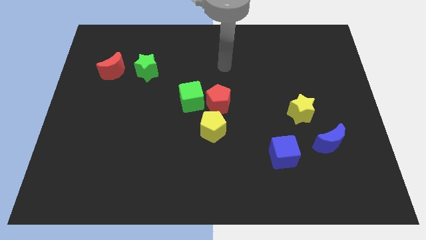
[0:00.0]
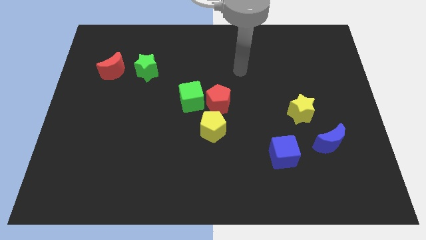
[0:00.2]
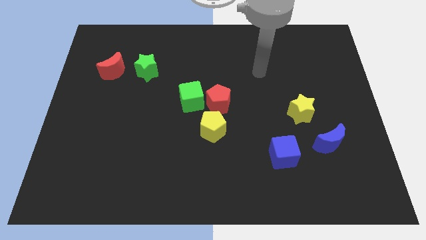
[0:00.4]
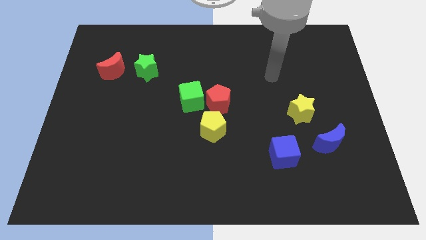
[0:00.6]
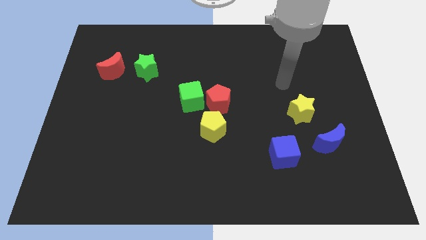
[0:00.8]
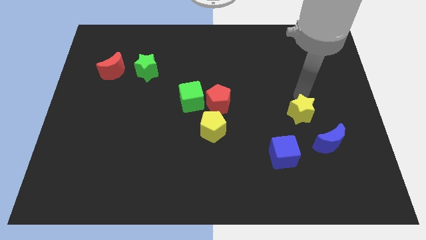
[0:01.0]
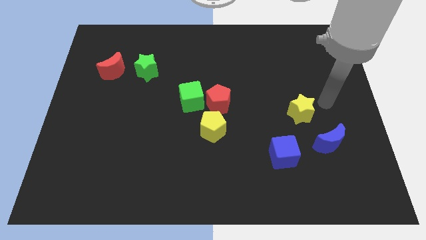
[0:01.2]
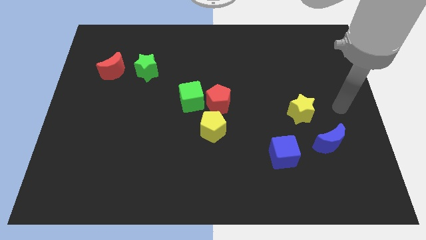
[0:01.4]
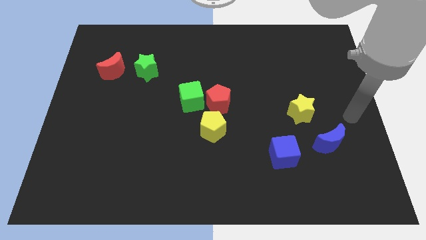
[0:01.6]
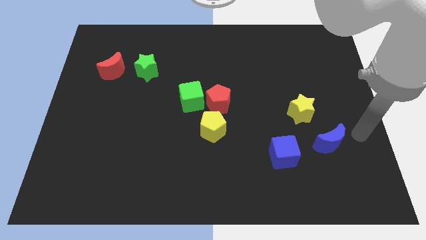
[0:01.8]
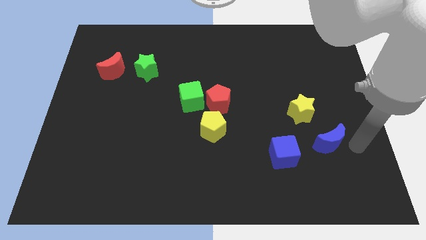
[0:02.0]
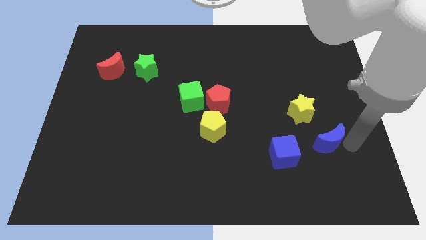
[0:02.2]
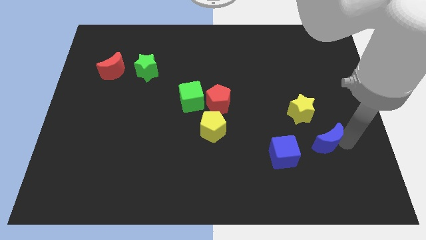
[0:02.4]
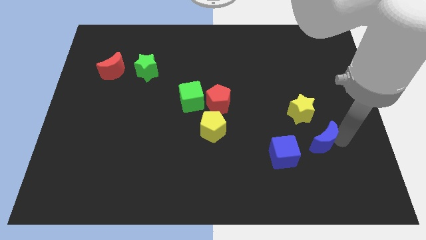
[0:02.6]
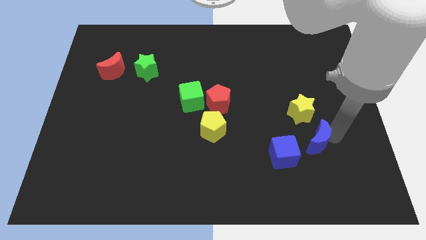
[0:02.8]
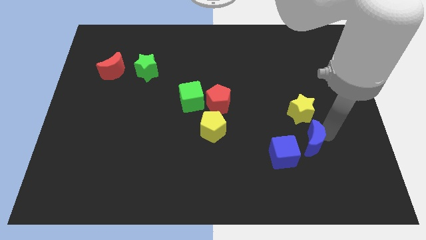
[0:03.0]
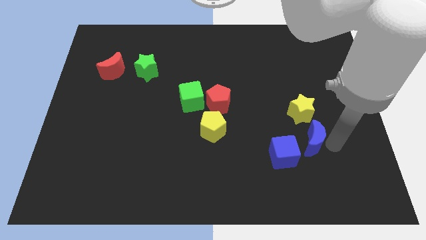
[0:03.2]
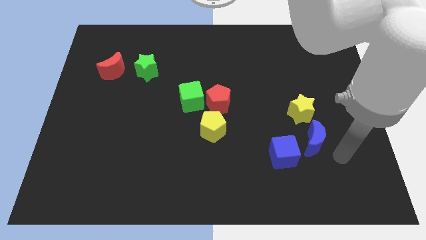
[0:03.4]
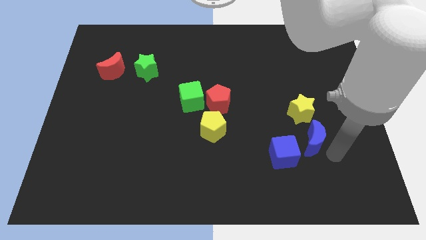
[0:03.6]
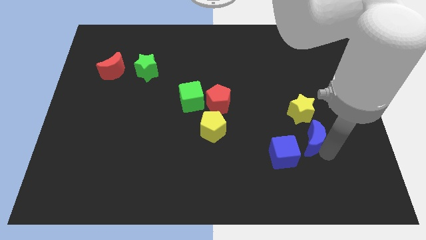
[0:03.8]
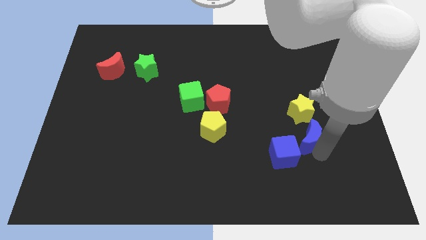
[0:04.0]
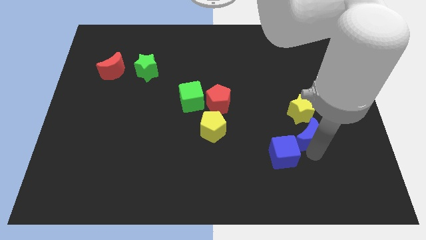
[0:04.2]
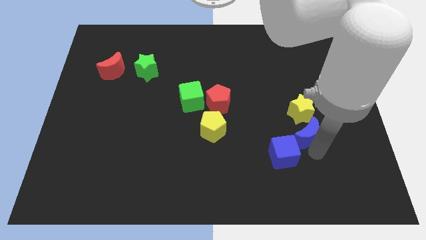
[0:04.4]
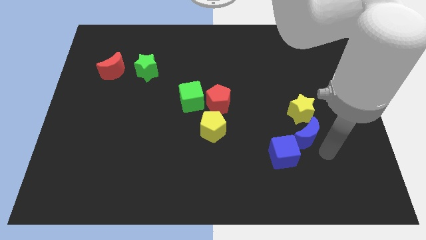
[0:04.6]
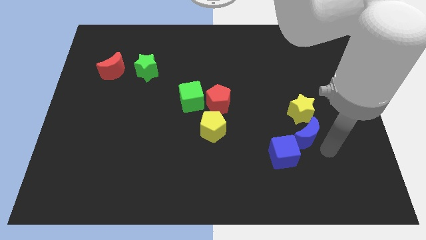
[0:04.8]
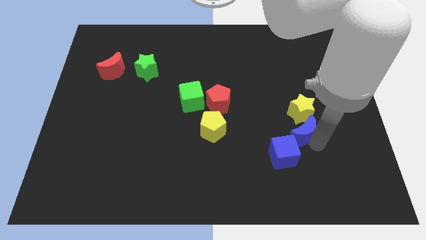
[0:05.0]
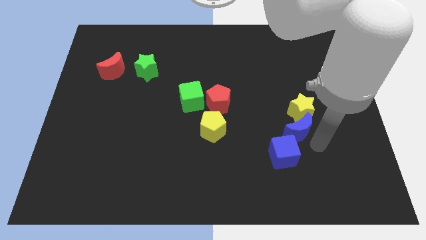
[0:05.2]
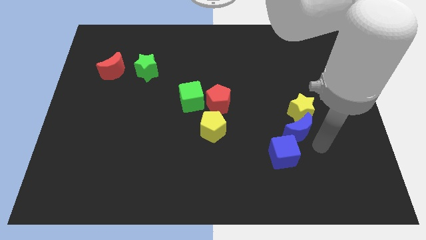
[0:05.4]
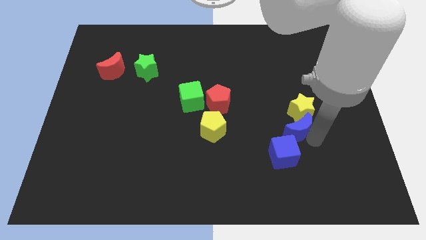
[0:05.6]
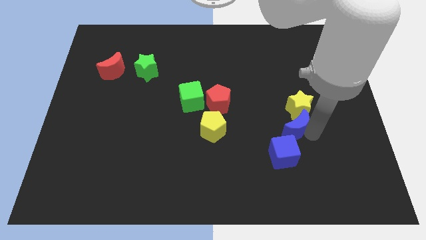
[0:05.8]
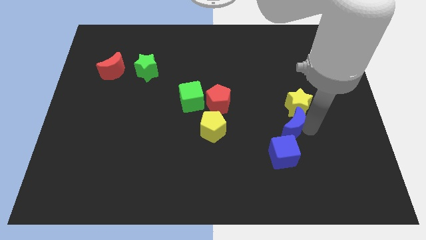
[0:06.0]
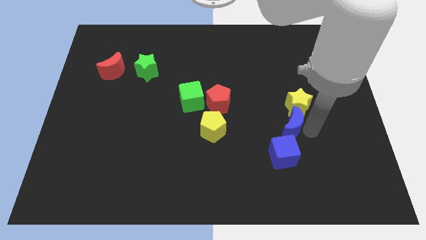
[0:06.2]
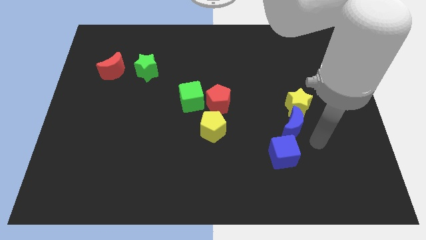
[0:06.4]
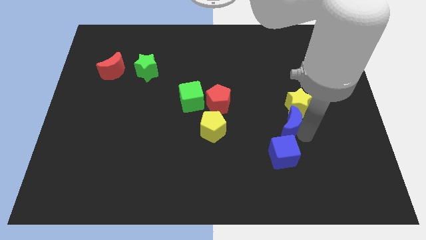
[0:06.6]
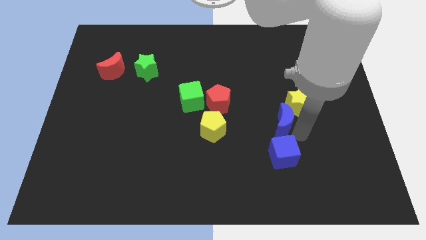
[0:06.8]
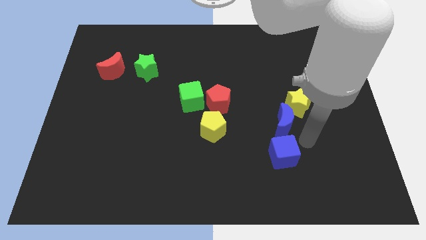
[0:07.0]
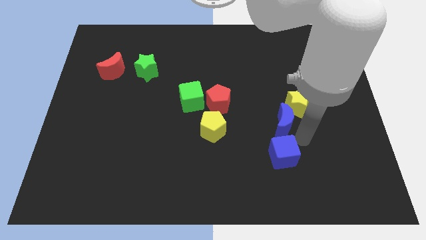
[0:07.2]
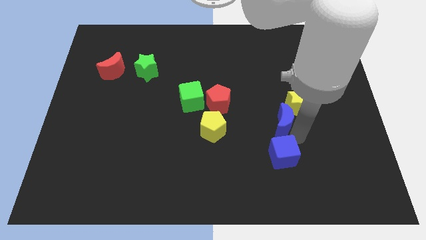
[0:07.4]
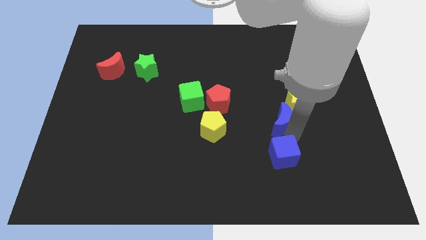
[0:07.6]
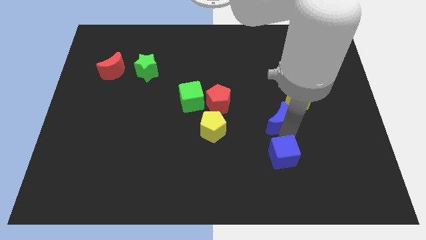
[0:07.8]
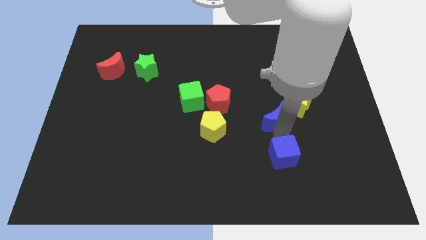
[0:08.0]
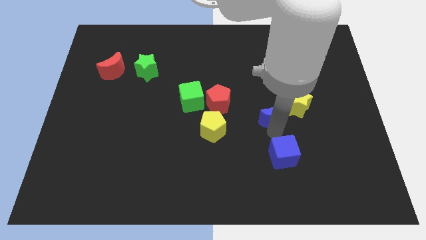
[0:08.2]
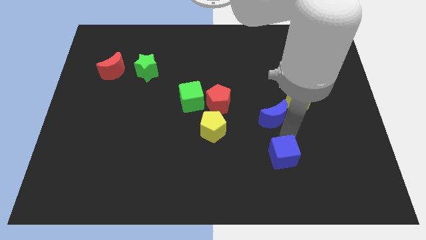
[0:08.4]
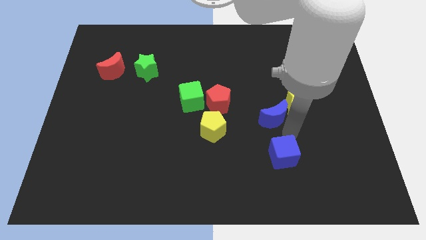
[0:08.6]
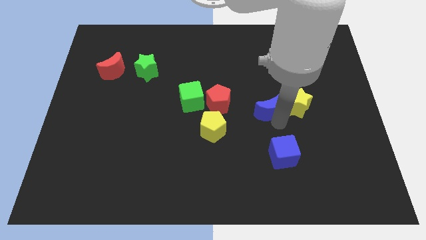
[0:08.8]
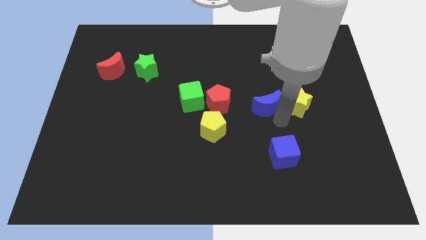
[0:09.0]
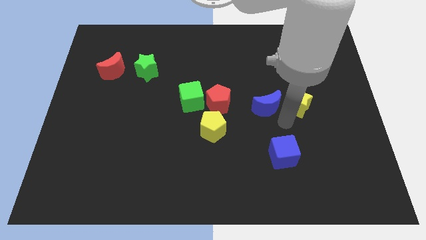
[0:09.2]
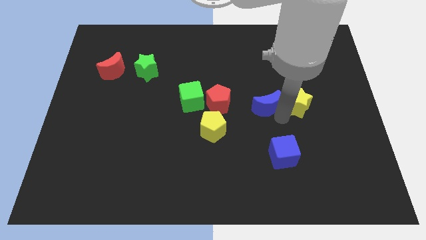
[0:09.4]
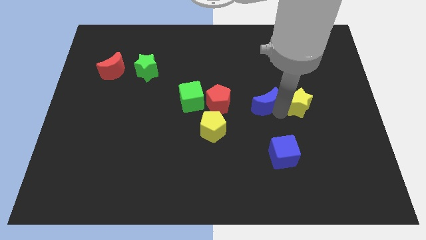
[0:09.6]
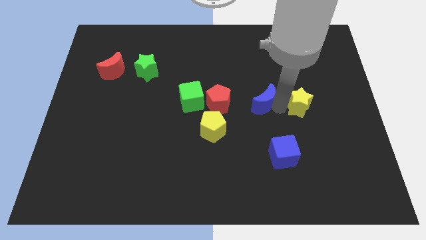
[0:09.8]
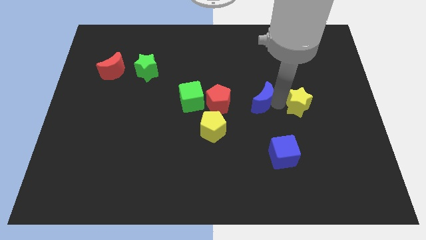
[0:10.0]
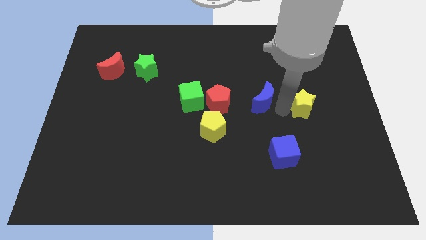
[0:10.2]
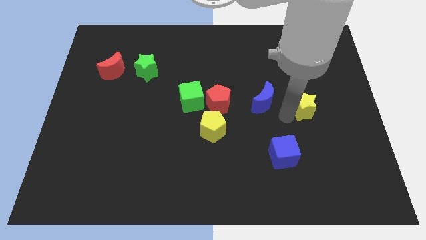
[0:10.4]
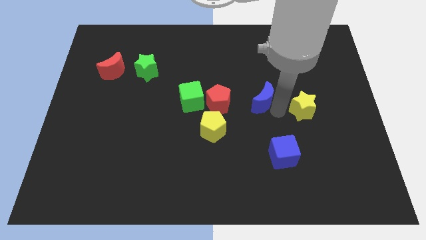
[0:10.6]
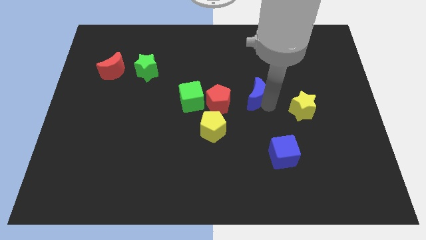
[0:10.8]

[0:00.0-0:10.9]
slide the blue moon diagonally upwards and left

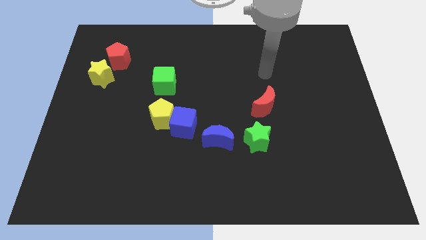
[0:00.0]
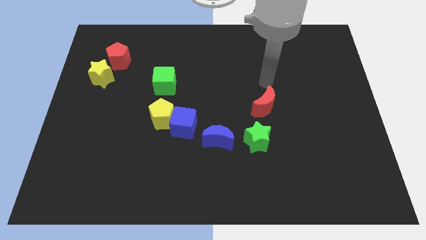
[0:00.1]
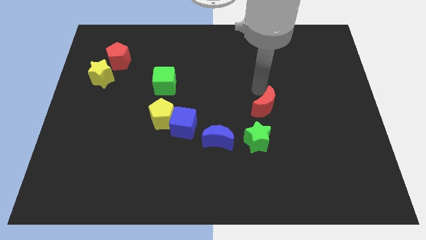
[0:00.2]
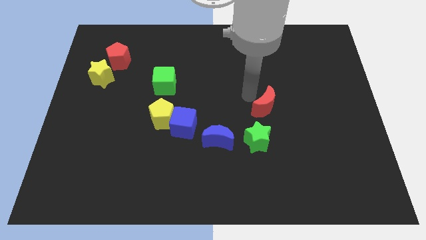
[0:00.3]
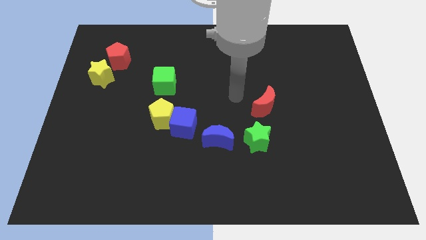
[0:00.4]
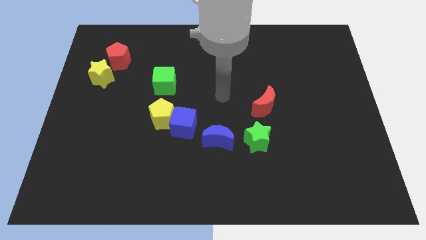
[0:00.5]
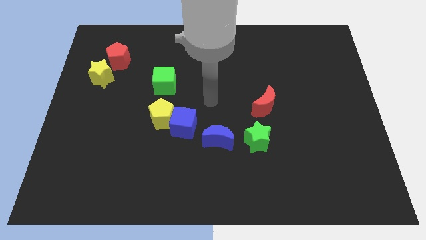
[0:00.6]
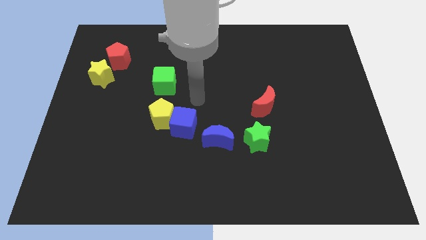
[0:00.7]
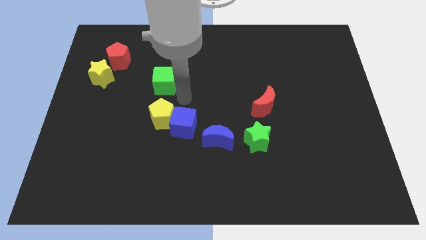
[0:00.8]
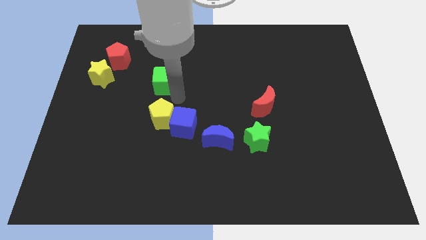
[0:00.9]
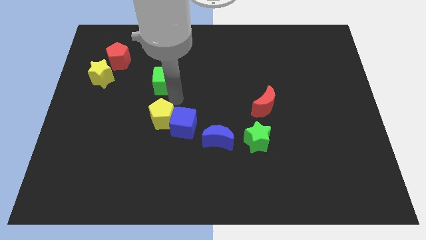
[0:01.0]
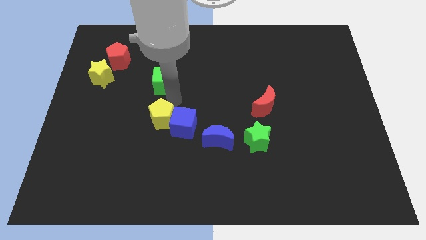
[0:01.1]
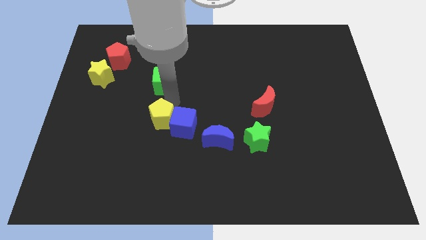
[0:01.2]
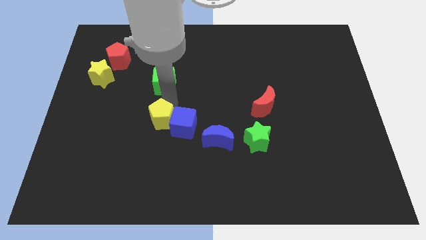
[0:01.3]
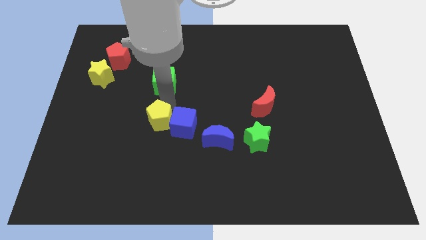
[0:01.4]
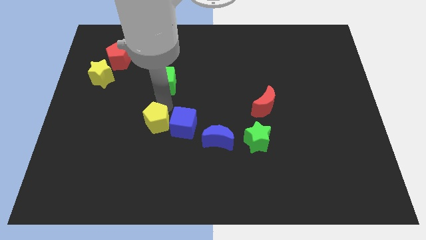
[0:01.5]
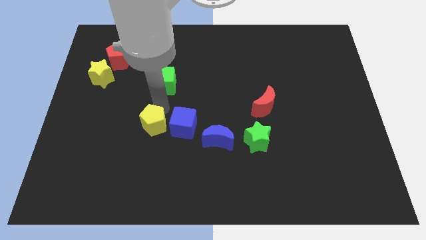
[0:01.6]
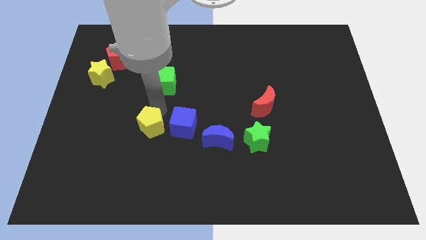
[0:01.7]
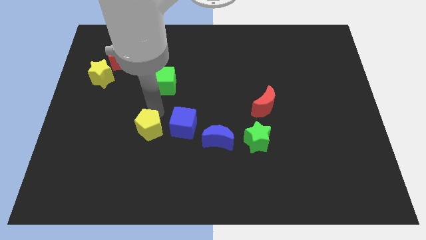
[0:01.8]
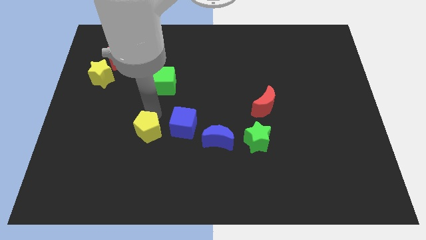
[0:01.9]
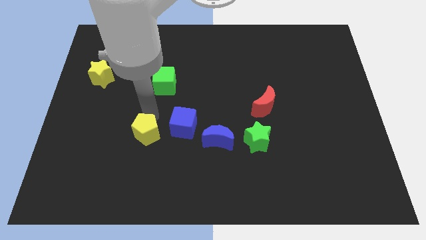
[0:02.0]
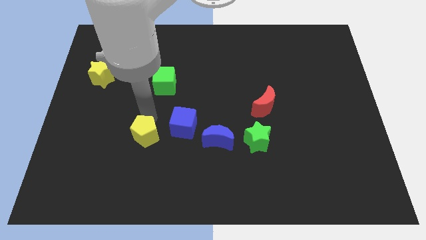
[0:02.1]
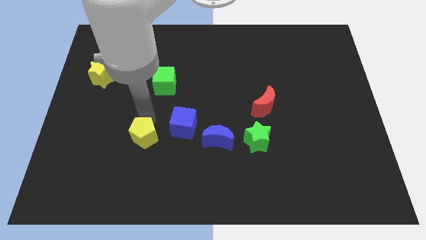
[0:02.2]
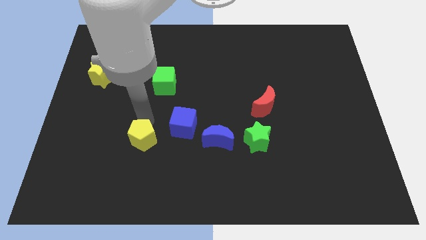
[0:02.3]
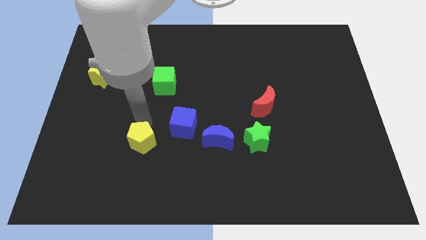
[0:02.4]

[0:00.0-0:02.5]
move the yellow pentagon down and to the left a little bit
